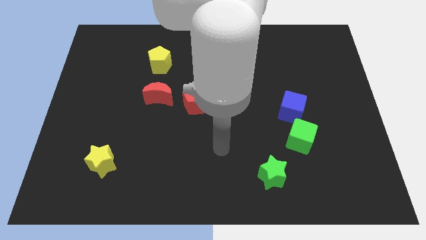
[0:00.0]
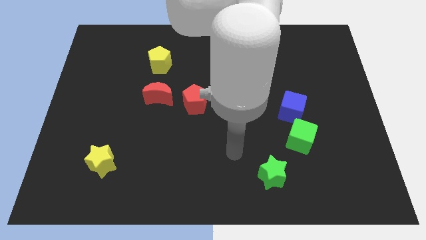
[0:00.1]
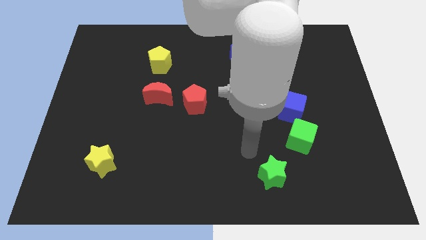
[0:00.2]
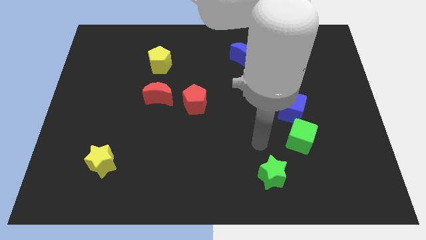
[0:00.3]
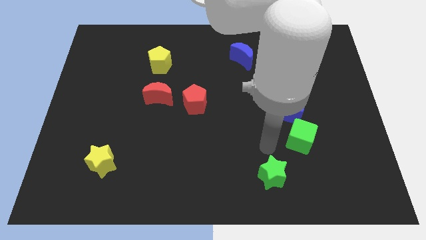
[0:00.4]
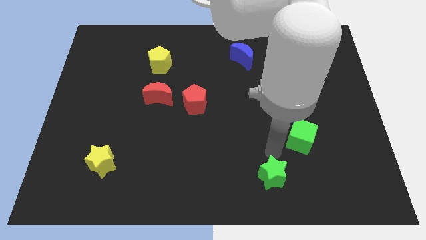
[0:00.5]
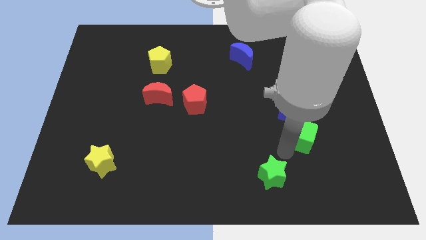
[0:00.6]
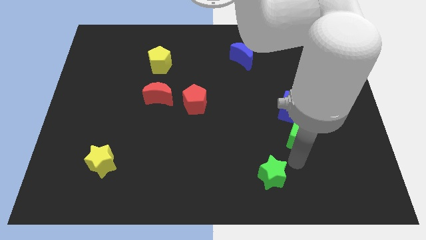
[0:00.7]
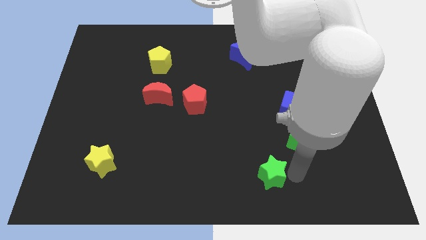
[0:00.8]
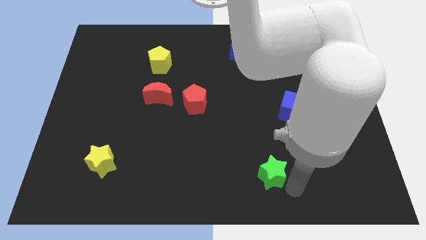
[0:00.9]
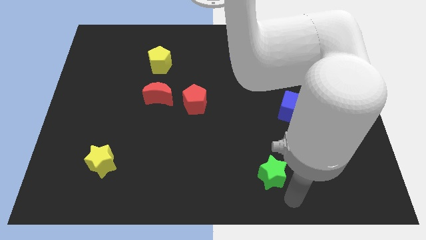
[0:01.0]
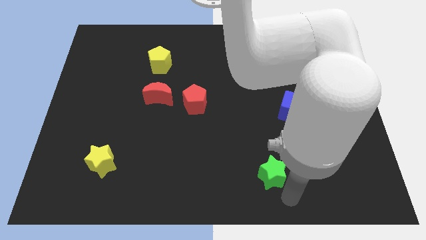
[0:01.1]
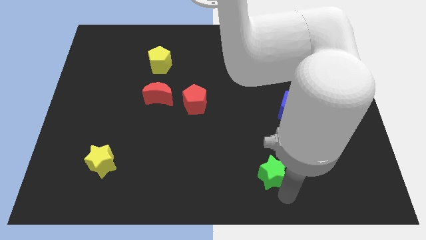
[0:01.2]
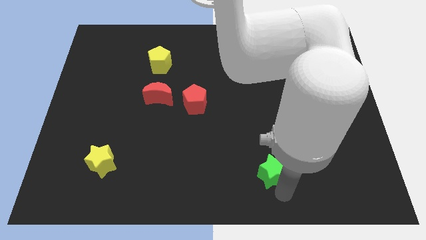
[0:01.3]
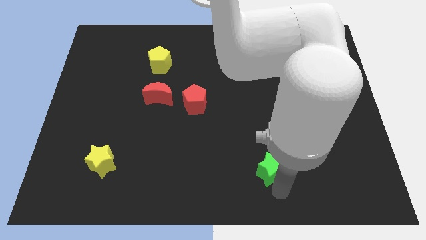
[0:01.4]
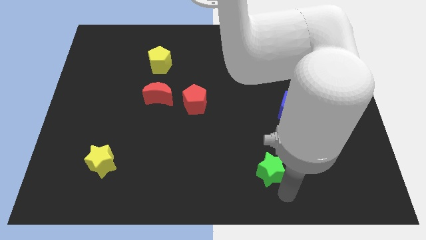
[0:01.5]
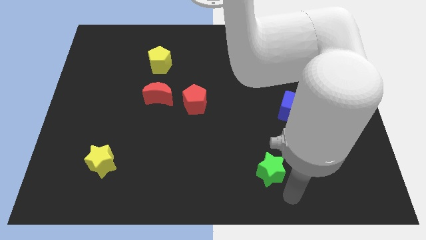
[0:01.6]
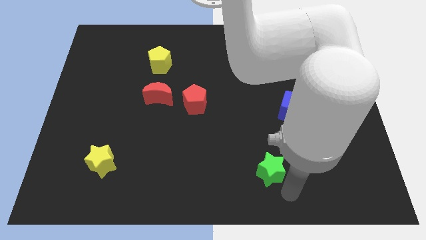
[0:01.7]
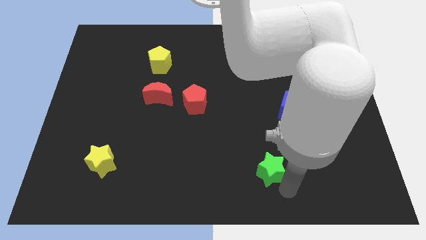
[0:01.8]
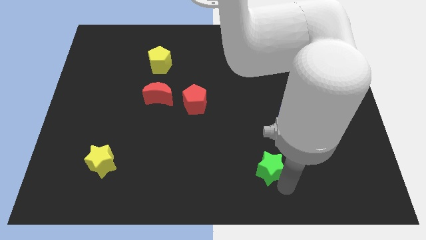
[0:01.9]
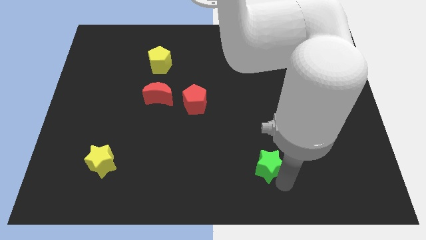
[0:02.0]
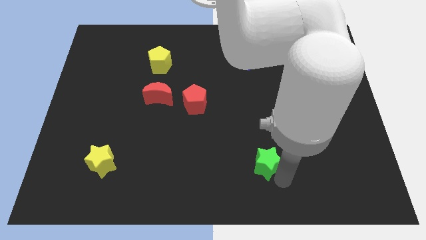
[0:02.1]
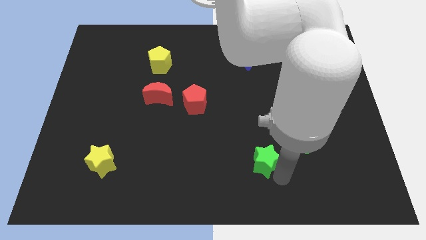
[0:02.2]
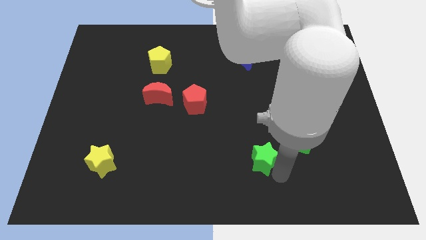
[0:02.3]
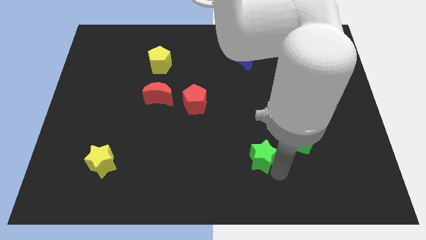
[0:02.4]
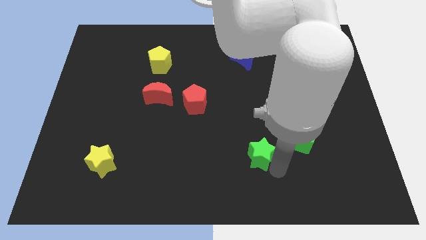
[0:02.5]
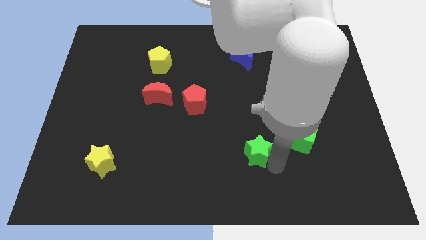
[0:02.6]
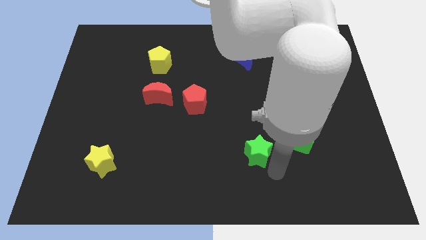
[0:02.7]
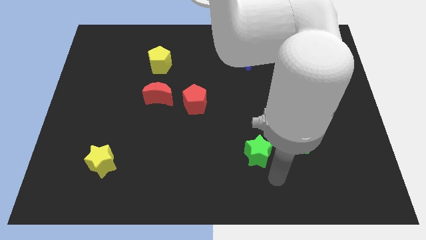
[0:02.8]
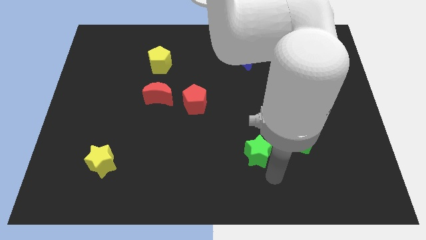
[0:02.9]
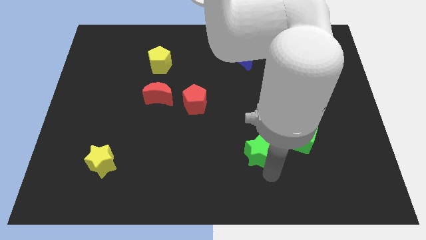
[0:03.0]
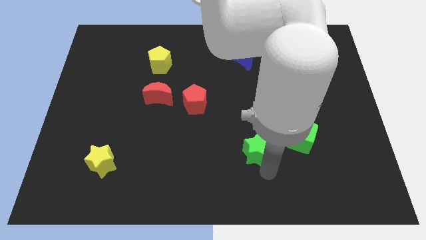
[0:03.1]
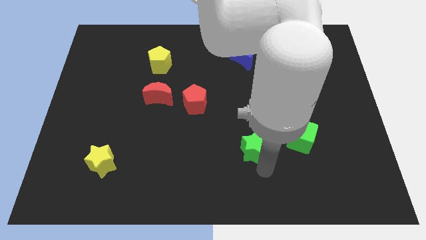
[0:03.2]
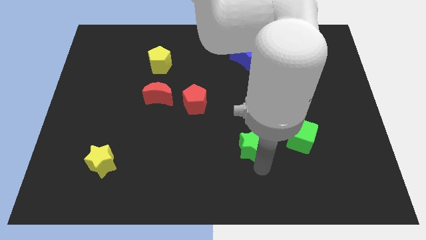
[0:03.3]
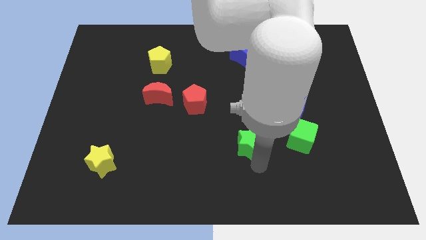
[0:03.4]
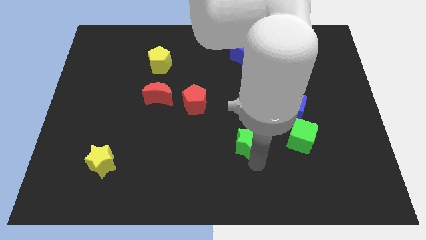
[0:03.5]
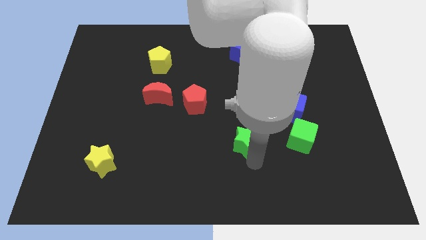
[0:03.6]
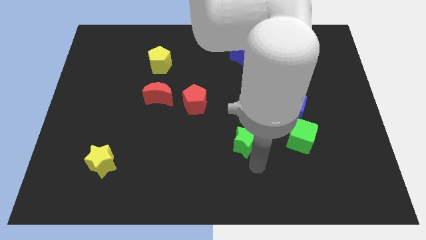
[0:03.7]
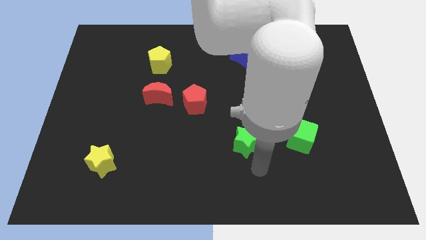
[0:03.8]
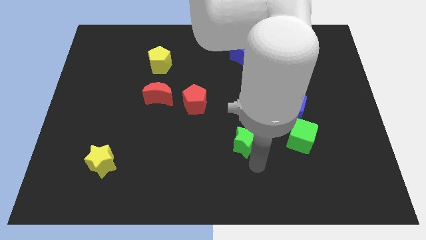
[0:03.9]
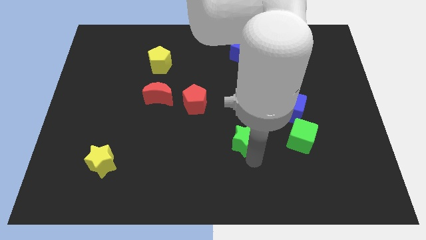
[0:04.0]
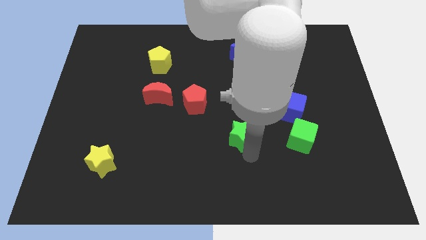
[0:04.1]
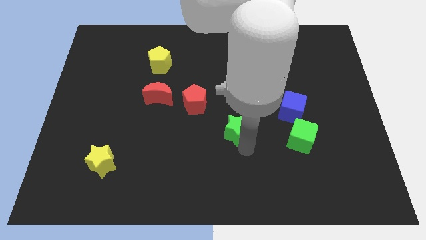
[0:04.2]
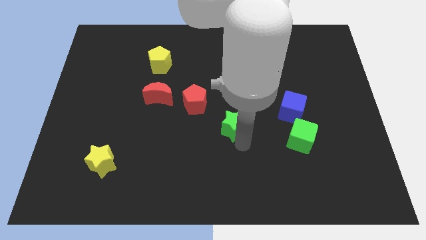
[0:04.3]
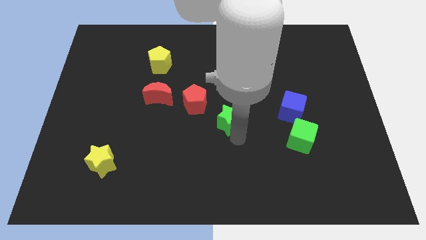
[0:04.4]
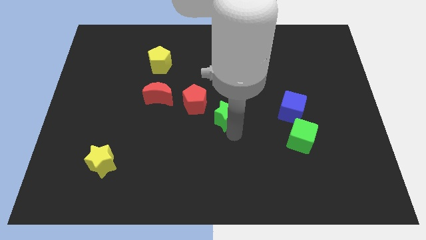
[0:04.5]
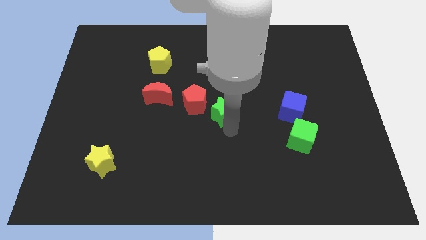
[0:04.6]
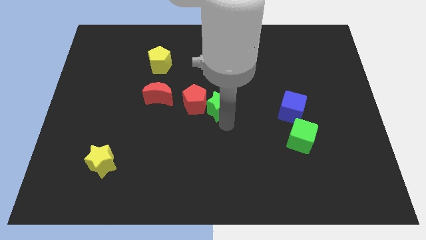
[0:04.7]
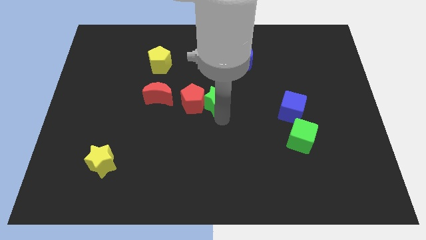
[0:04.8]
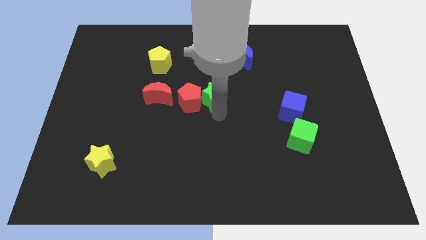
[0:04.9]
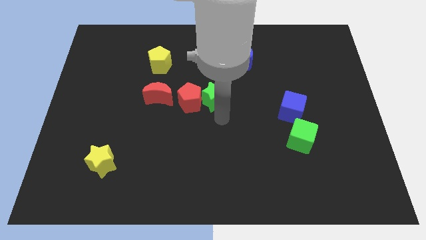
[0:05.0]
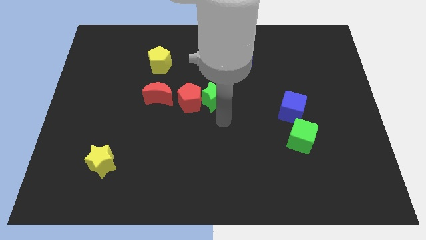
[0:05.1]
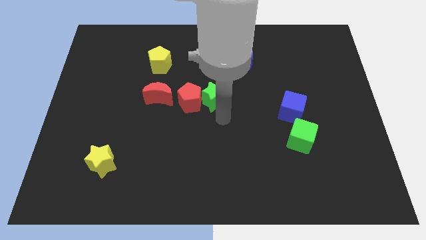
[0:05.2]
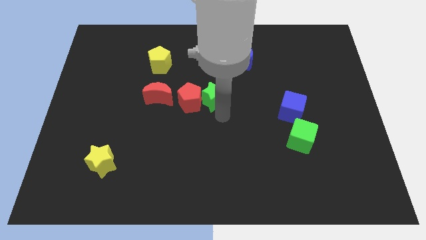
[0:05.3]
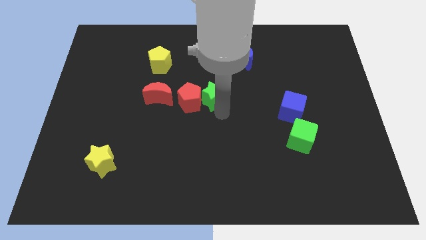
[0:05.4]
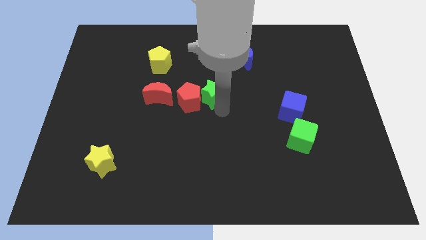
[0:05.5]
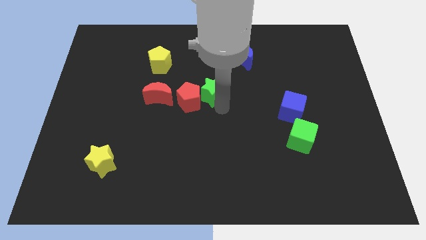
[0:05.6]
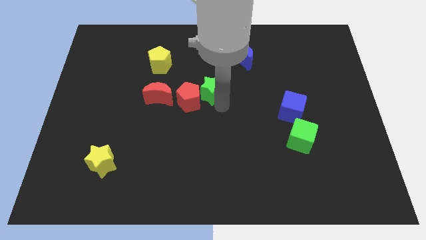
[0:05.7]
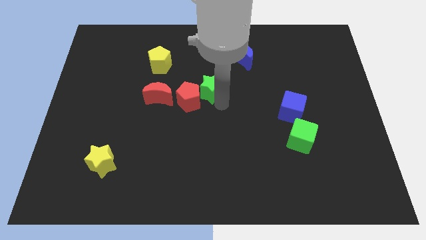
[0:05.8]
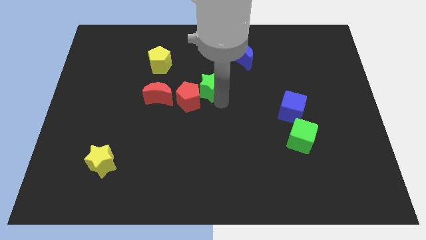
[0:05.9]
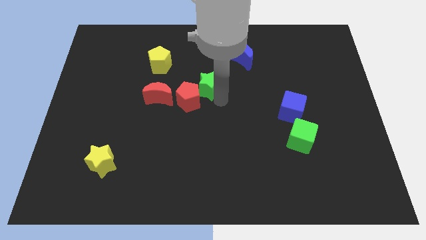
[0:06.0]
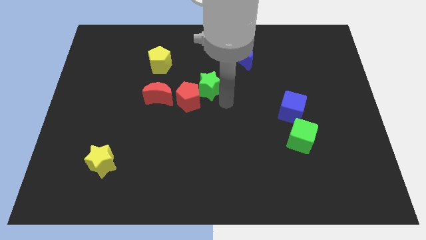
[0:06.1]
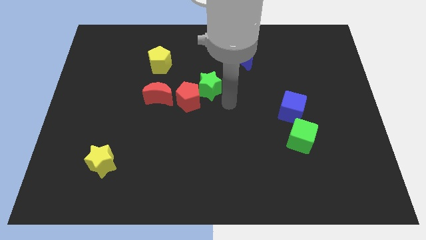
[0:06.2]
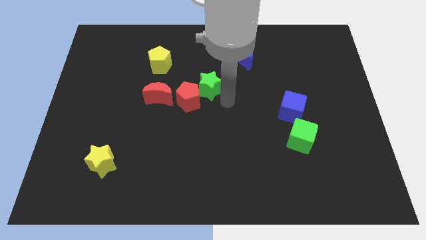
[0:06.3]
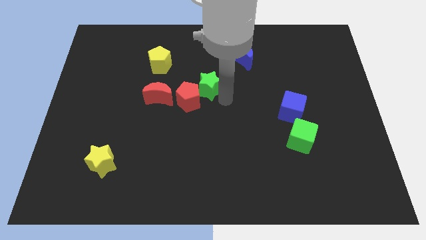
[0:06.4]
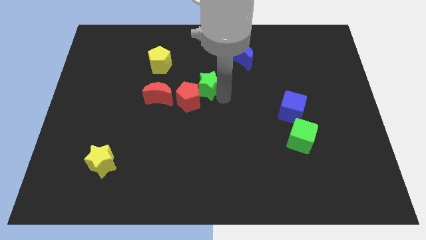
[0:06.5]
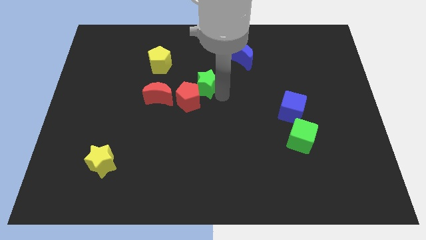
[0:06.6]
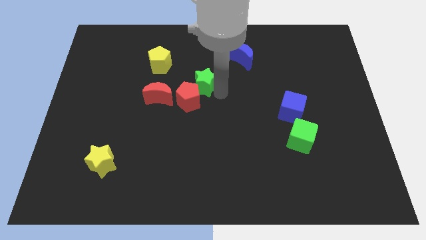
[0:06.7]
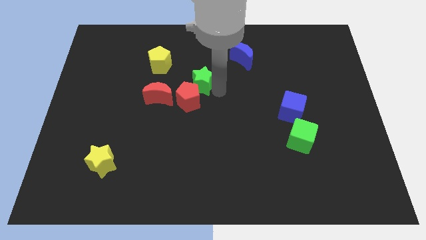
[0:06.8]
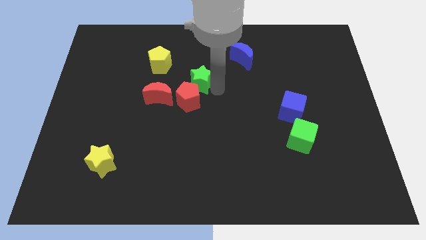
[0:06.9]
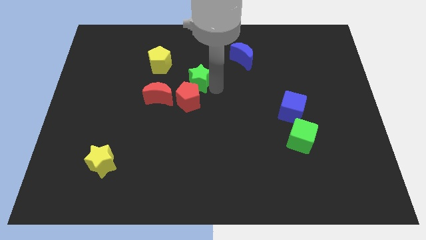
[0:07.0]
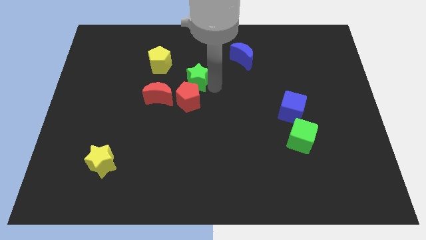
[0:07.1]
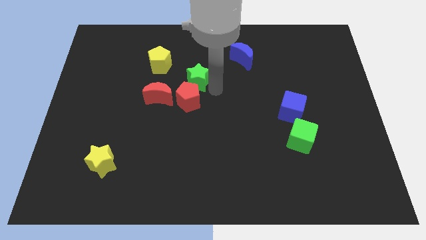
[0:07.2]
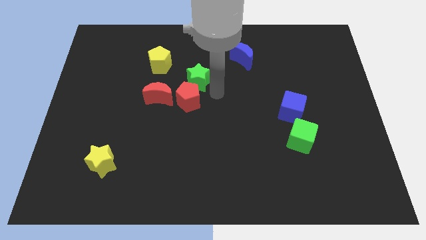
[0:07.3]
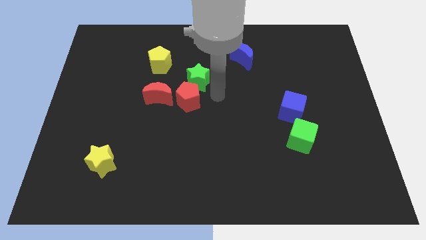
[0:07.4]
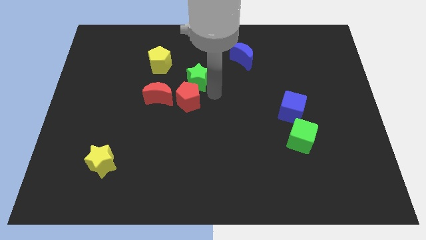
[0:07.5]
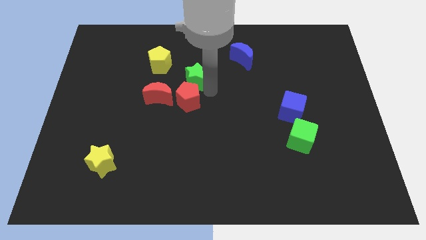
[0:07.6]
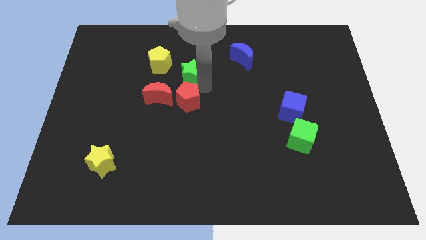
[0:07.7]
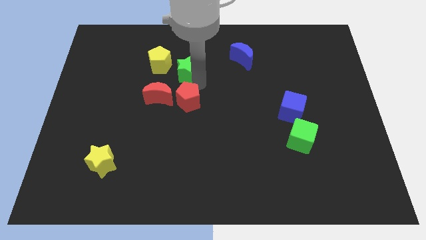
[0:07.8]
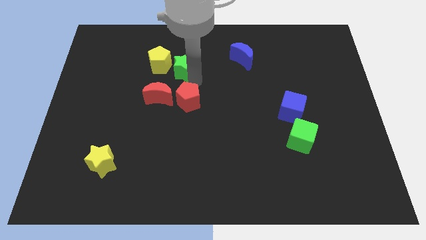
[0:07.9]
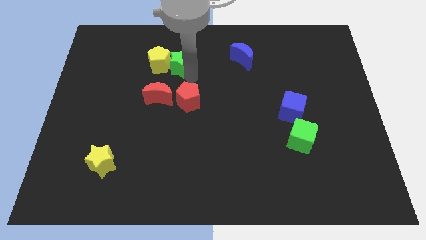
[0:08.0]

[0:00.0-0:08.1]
slide the green star close to the yellow pentagon
